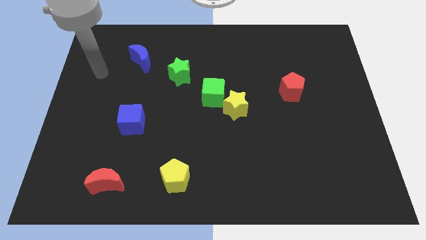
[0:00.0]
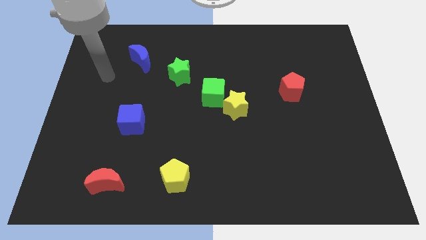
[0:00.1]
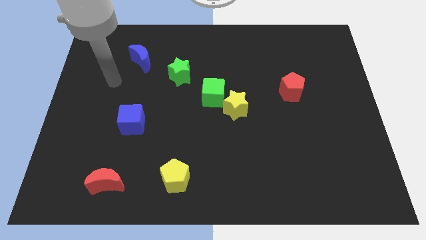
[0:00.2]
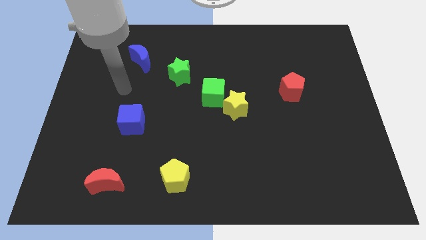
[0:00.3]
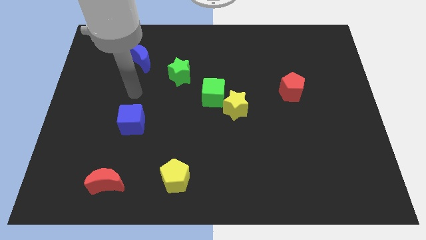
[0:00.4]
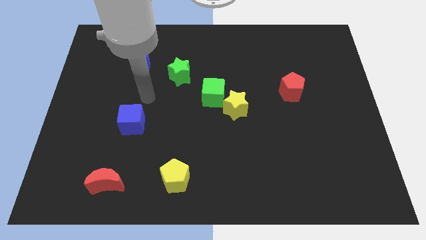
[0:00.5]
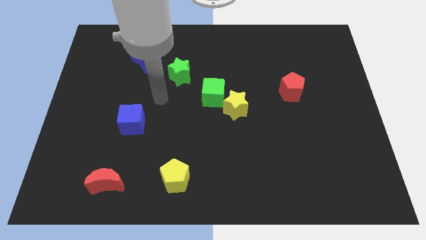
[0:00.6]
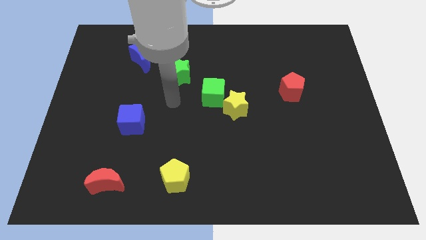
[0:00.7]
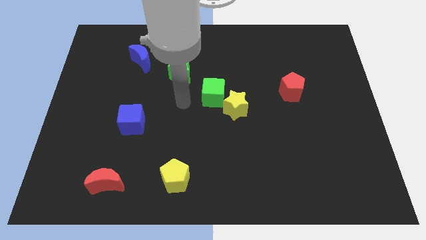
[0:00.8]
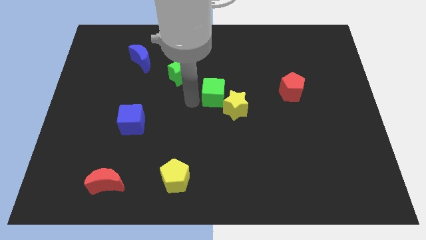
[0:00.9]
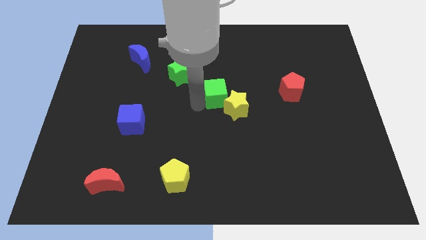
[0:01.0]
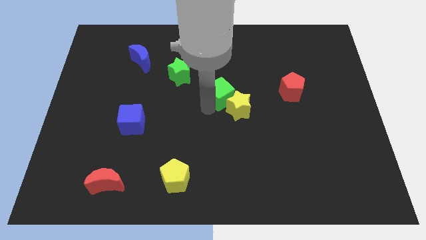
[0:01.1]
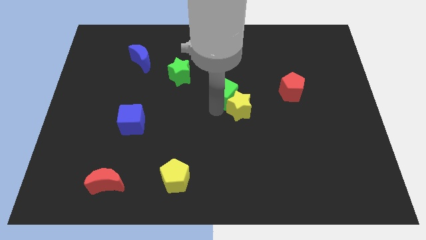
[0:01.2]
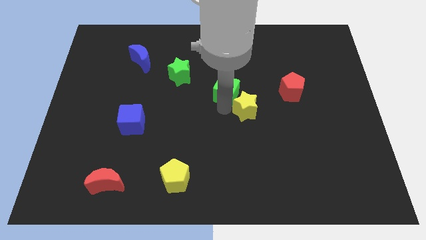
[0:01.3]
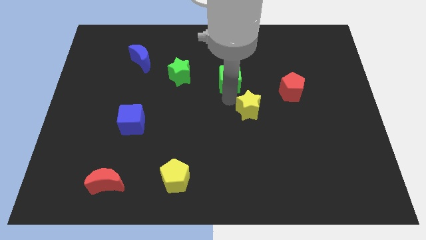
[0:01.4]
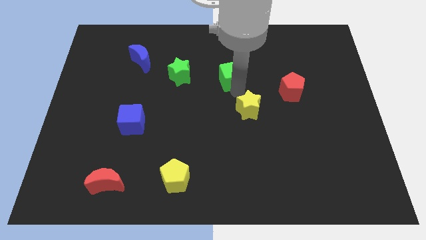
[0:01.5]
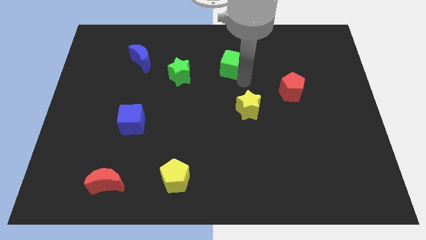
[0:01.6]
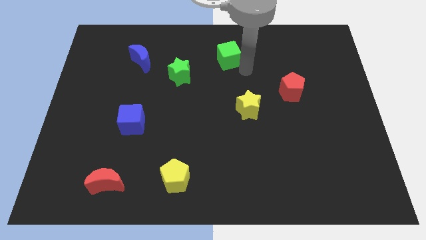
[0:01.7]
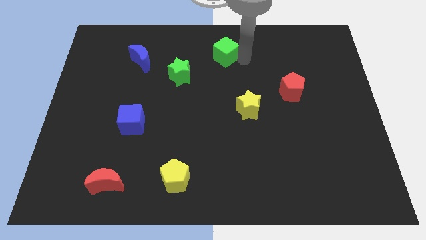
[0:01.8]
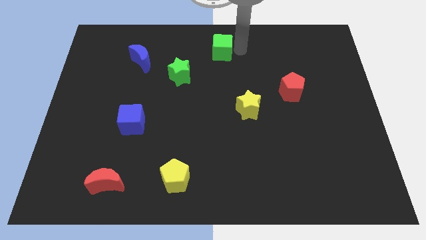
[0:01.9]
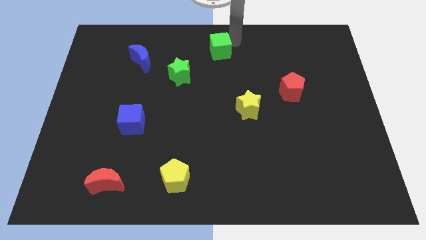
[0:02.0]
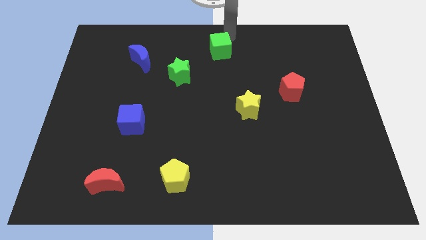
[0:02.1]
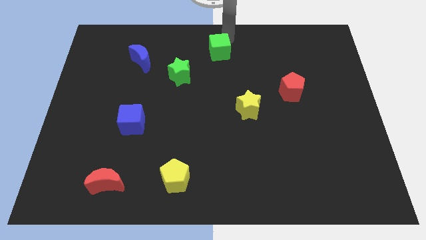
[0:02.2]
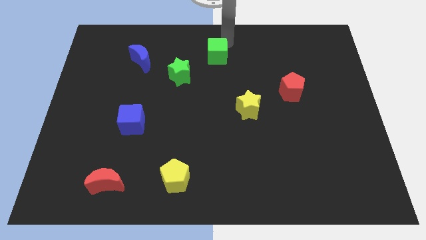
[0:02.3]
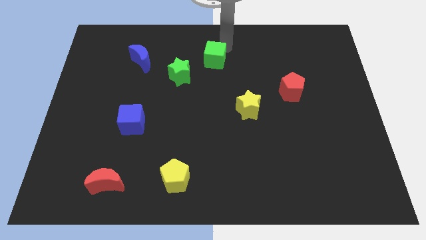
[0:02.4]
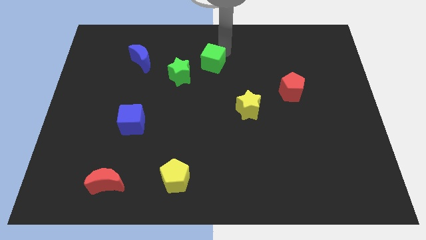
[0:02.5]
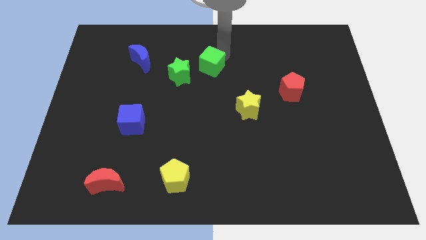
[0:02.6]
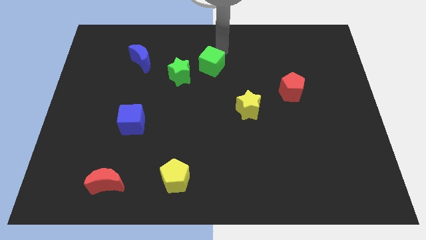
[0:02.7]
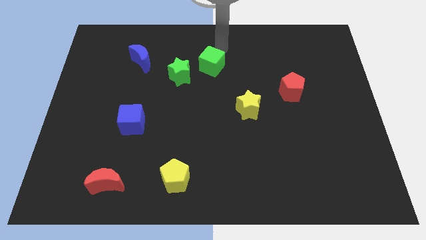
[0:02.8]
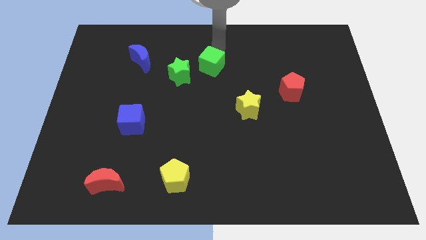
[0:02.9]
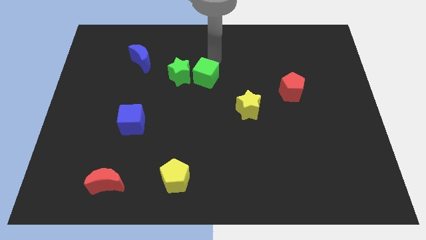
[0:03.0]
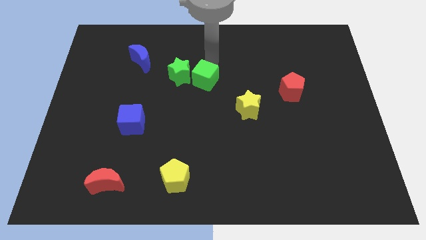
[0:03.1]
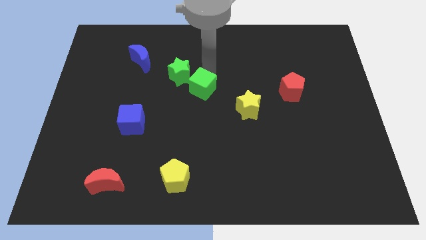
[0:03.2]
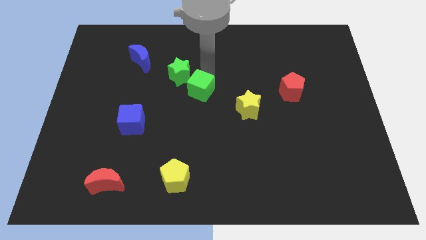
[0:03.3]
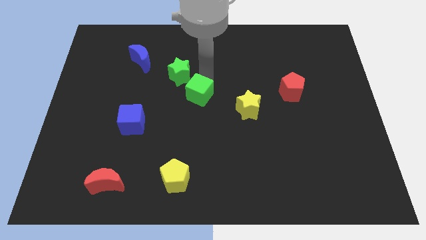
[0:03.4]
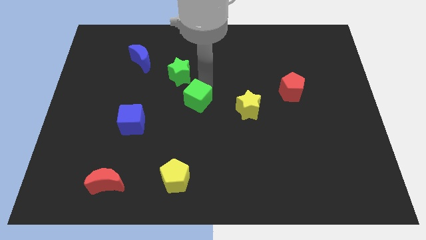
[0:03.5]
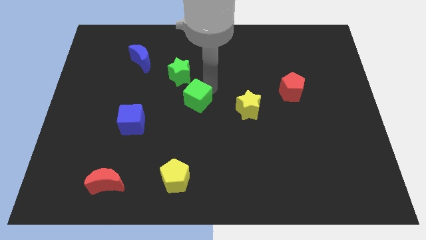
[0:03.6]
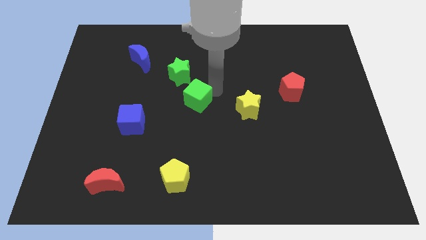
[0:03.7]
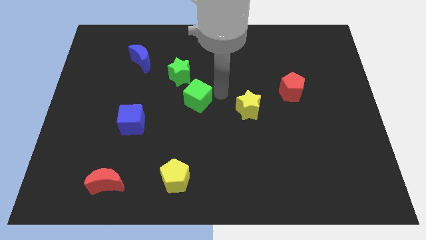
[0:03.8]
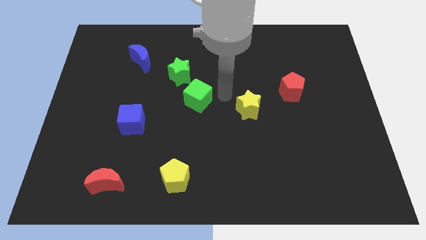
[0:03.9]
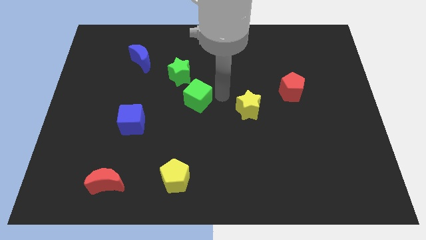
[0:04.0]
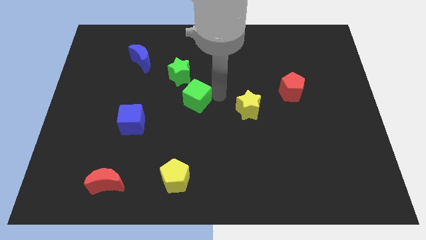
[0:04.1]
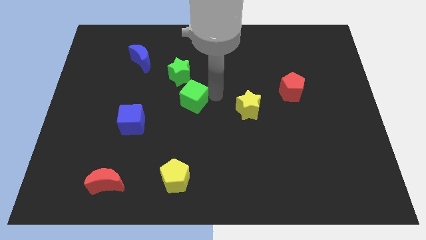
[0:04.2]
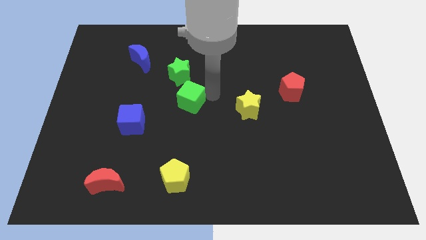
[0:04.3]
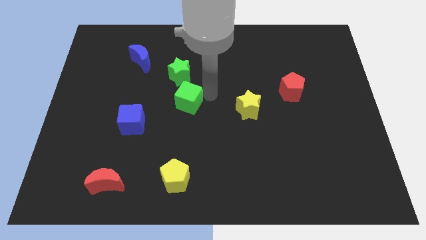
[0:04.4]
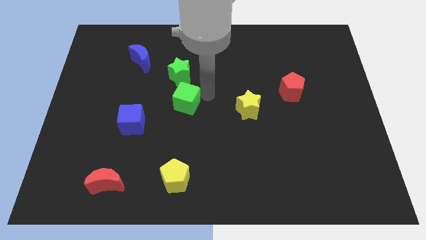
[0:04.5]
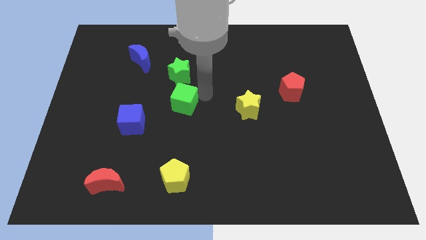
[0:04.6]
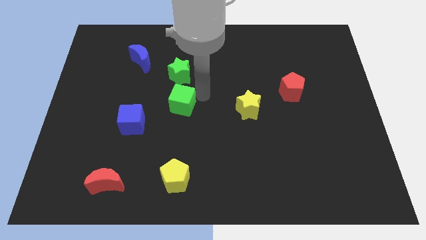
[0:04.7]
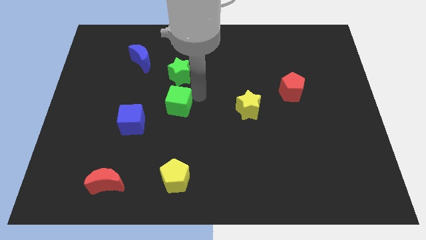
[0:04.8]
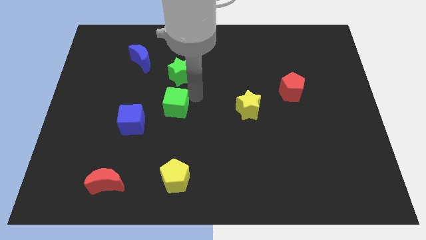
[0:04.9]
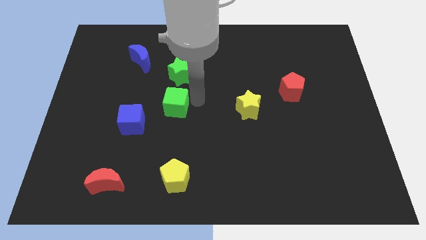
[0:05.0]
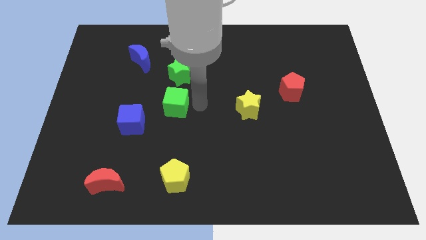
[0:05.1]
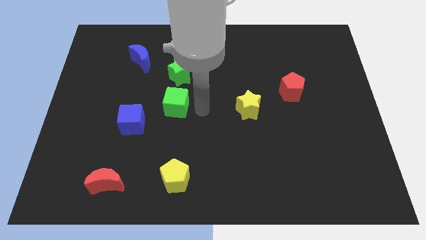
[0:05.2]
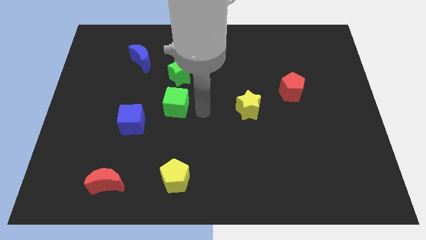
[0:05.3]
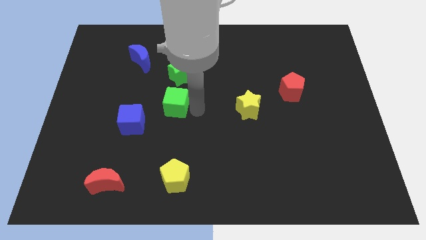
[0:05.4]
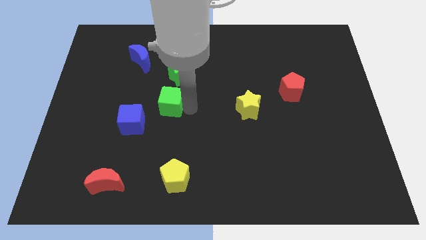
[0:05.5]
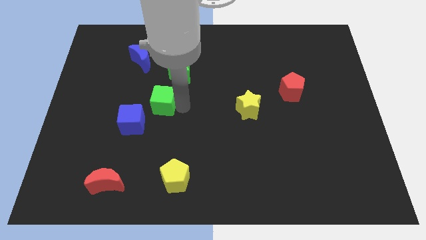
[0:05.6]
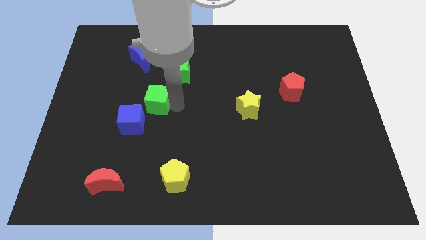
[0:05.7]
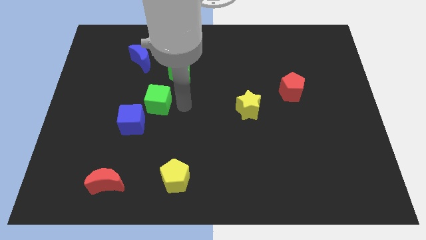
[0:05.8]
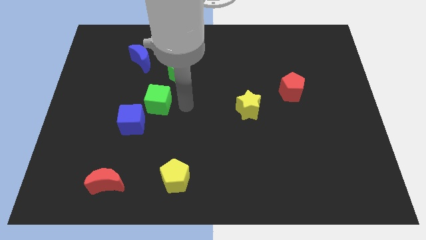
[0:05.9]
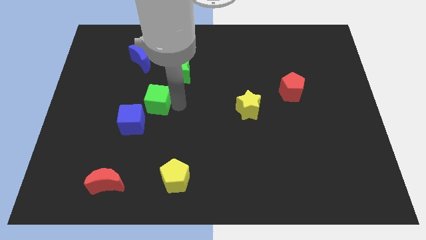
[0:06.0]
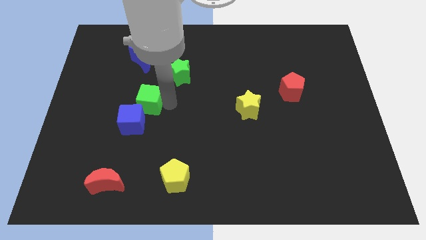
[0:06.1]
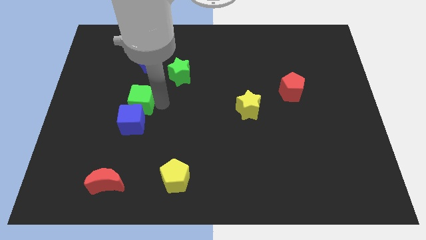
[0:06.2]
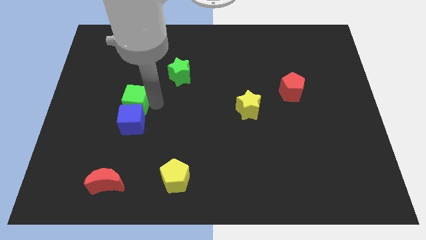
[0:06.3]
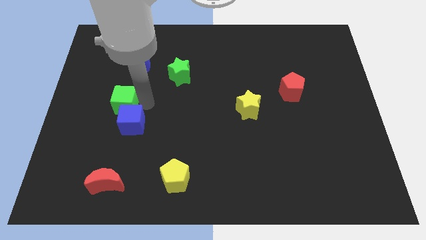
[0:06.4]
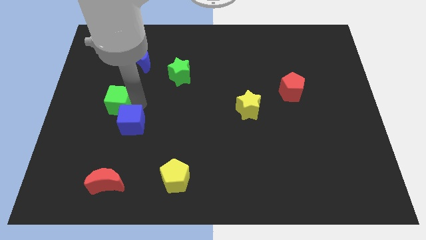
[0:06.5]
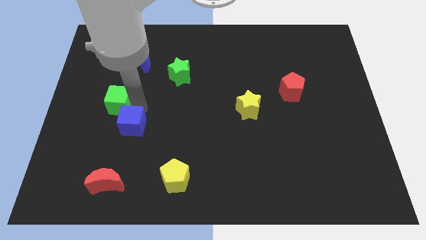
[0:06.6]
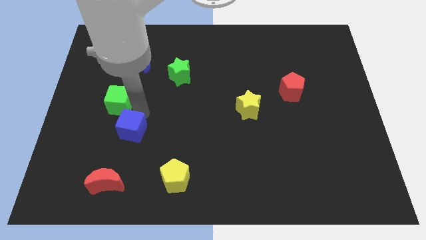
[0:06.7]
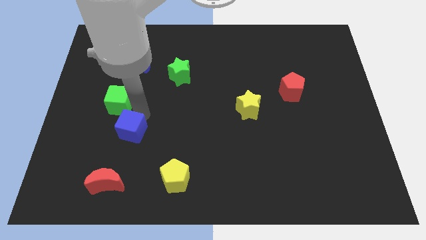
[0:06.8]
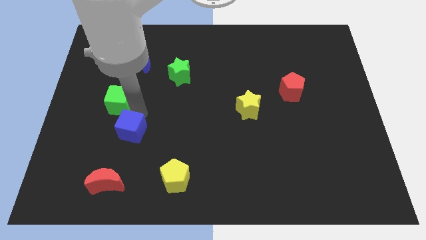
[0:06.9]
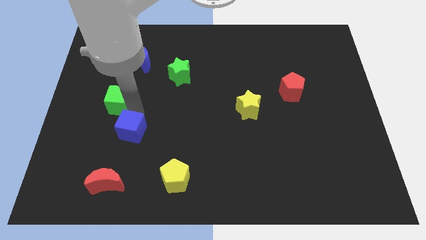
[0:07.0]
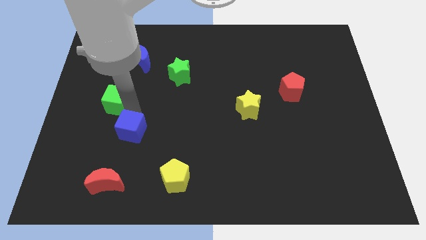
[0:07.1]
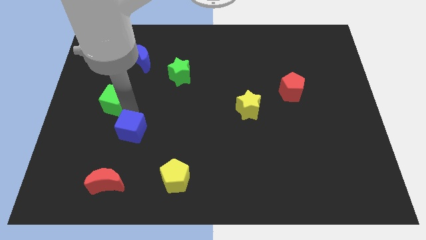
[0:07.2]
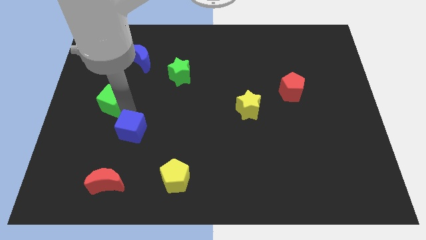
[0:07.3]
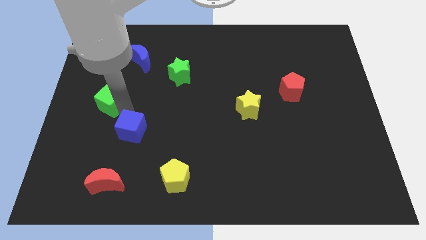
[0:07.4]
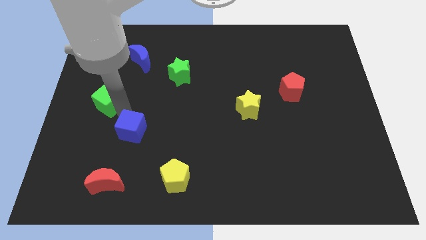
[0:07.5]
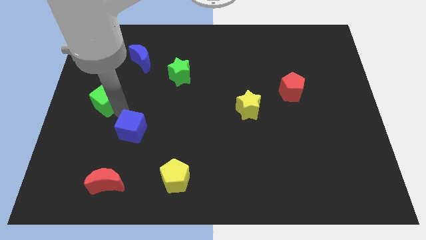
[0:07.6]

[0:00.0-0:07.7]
put the green cube to the left side of the board
